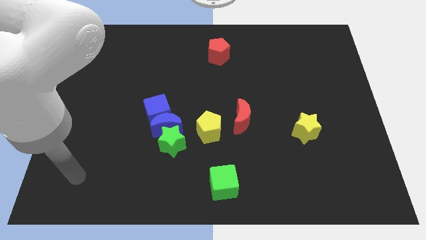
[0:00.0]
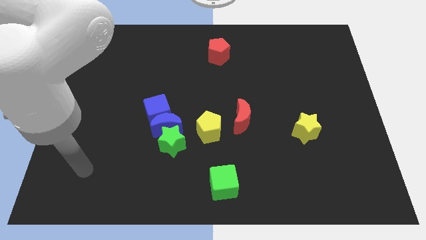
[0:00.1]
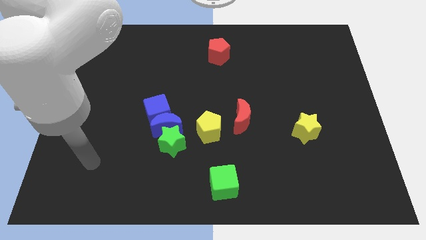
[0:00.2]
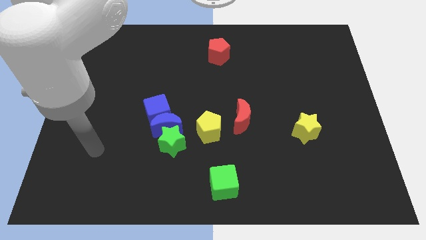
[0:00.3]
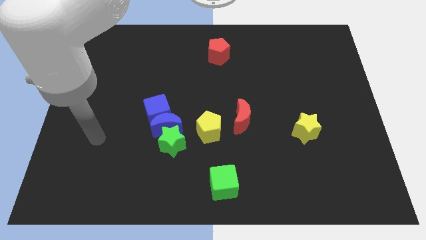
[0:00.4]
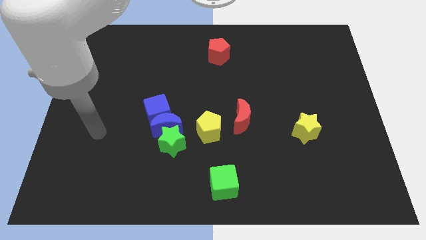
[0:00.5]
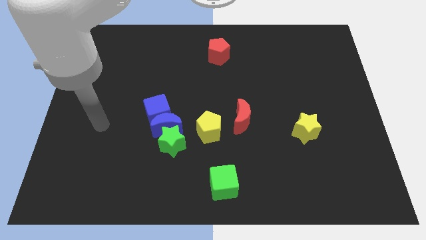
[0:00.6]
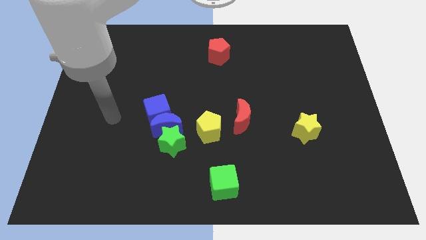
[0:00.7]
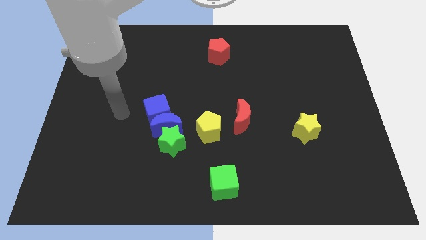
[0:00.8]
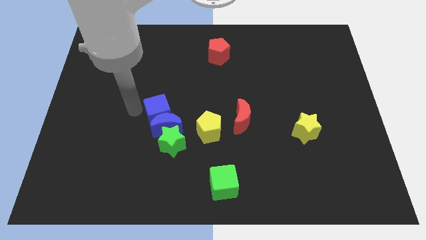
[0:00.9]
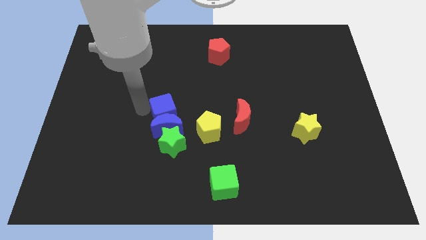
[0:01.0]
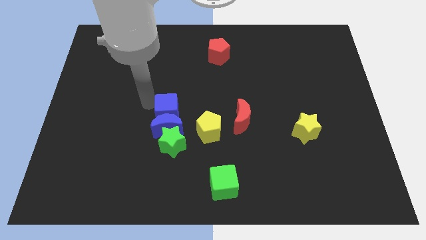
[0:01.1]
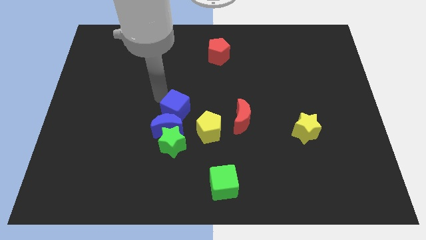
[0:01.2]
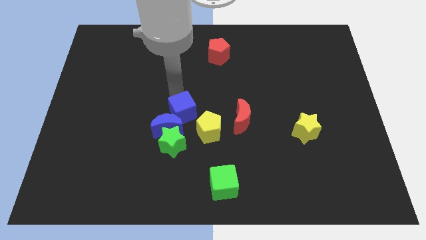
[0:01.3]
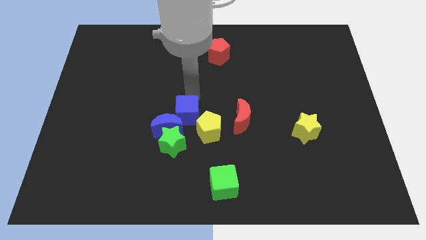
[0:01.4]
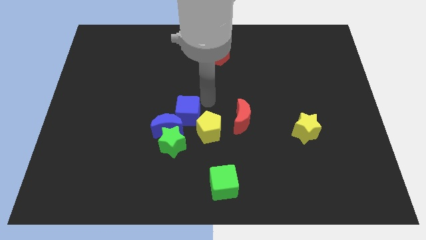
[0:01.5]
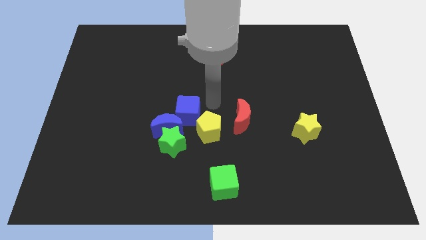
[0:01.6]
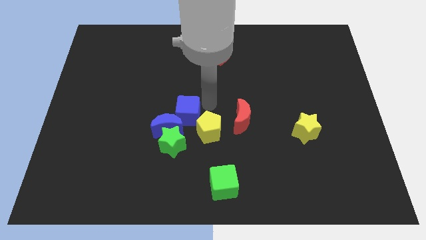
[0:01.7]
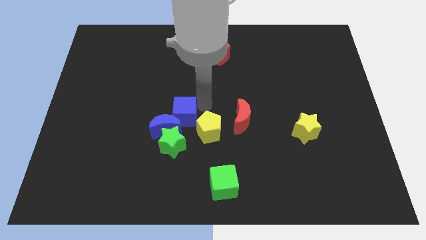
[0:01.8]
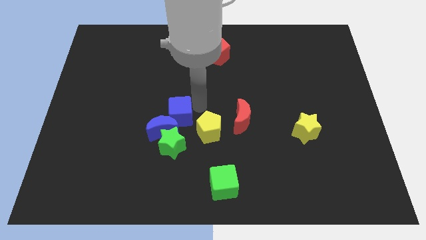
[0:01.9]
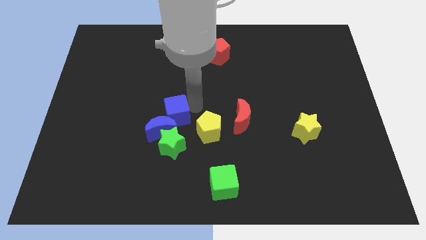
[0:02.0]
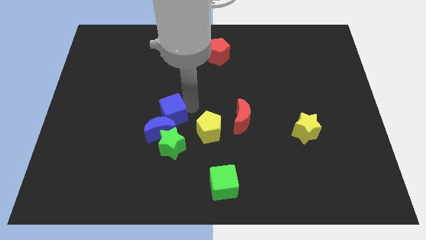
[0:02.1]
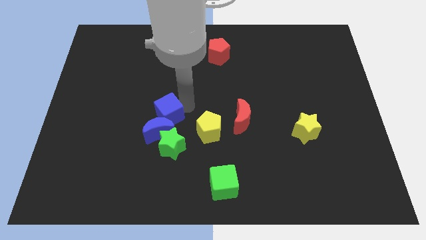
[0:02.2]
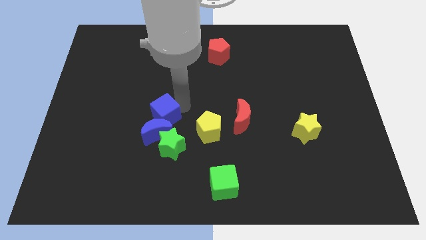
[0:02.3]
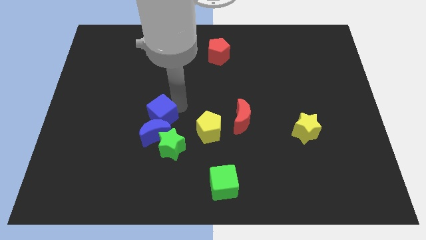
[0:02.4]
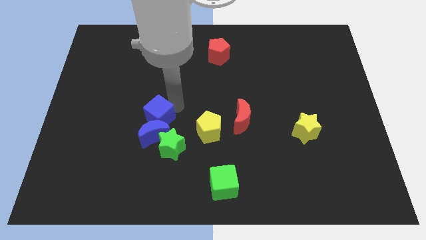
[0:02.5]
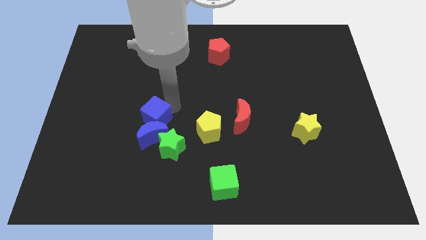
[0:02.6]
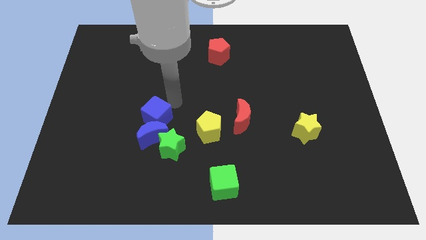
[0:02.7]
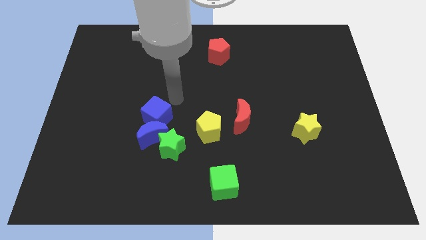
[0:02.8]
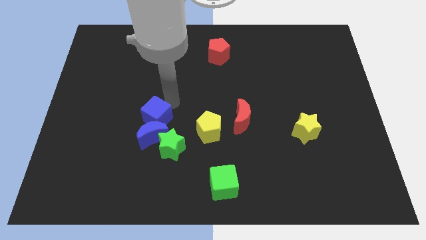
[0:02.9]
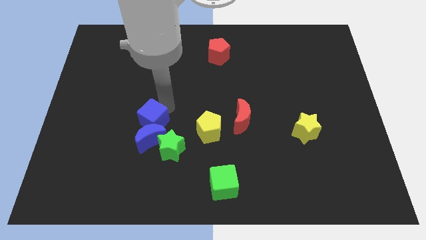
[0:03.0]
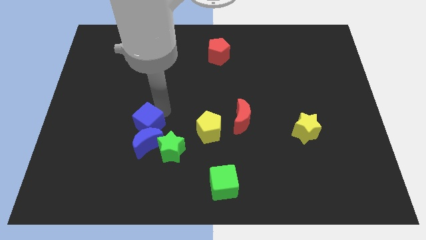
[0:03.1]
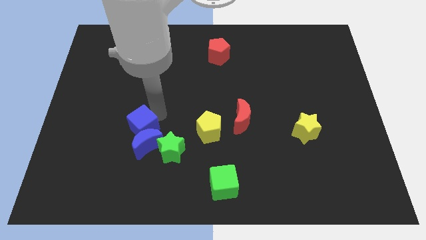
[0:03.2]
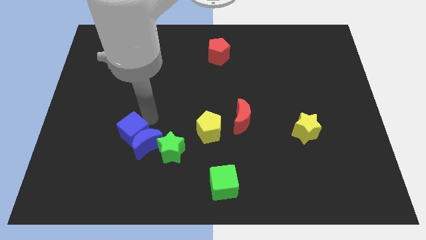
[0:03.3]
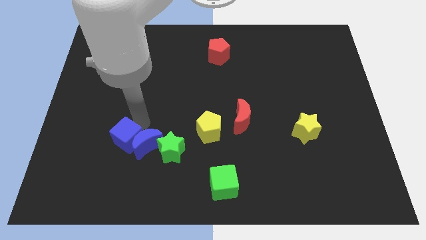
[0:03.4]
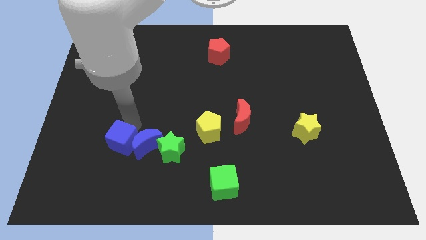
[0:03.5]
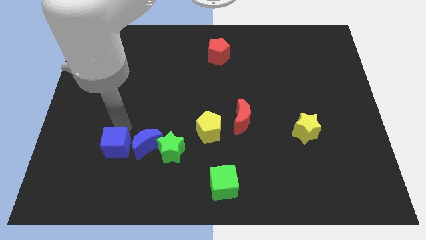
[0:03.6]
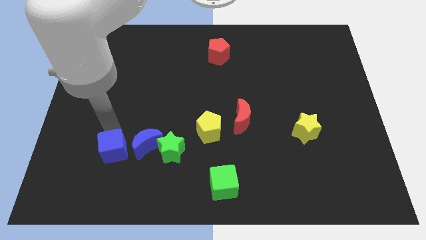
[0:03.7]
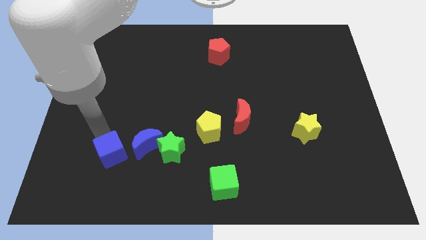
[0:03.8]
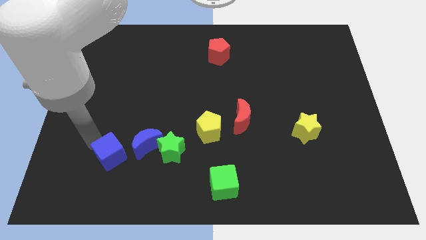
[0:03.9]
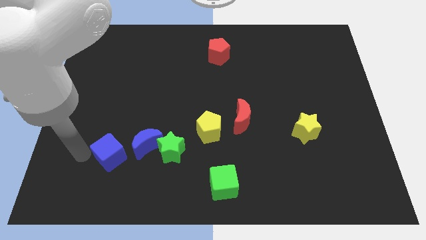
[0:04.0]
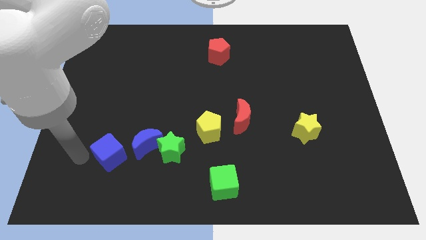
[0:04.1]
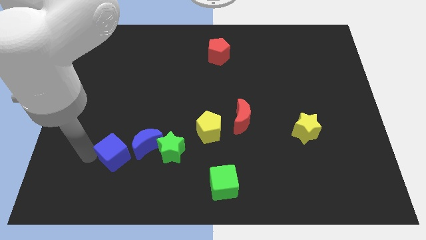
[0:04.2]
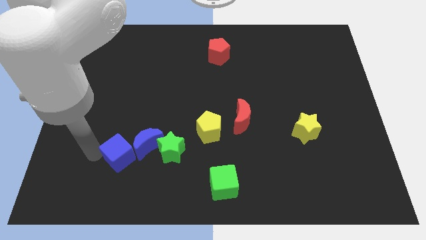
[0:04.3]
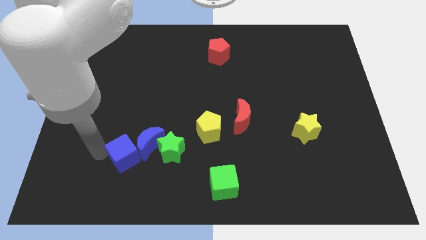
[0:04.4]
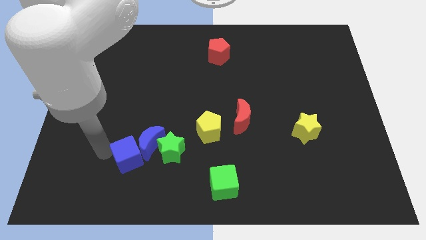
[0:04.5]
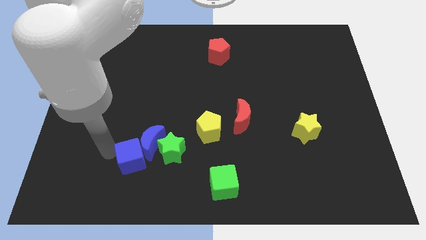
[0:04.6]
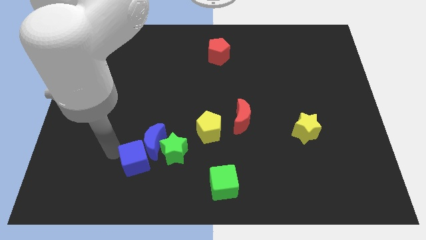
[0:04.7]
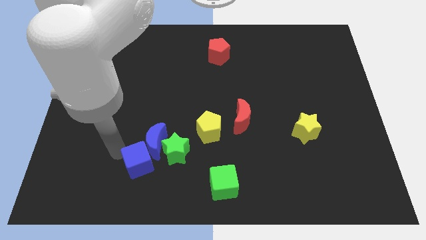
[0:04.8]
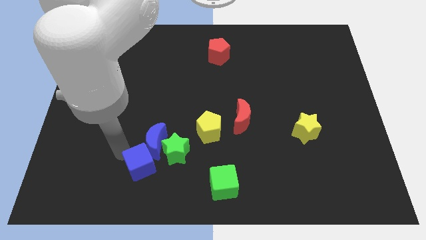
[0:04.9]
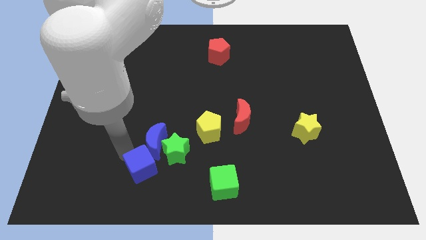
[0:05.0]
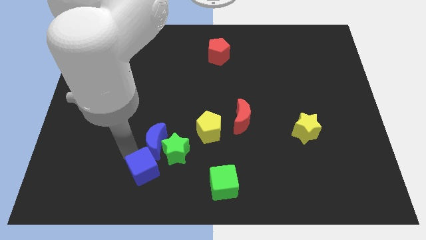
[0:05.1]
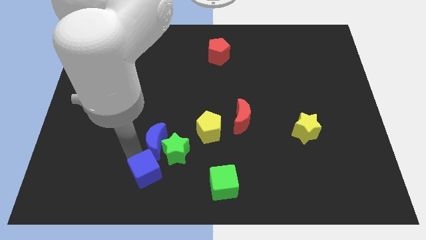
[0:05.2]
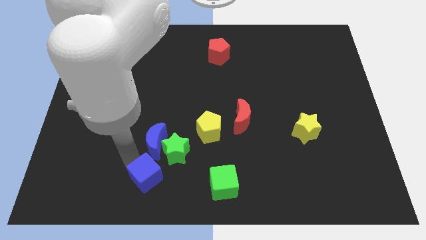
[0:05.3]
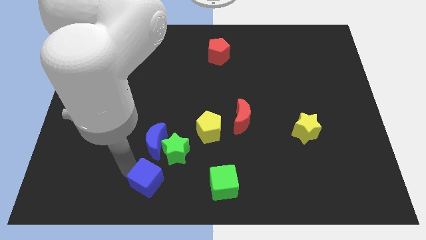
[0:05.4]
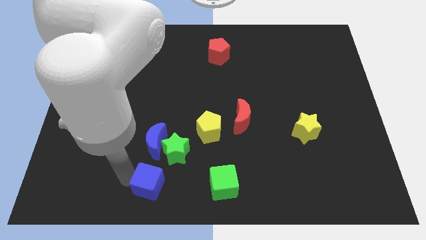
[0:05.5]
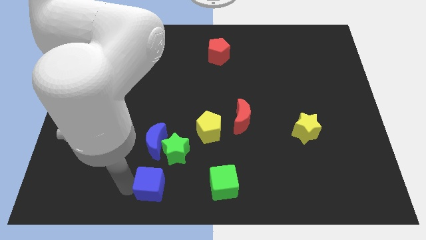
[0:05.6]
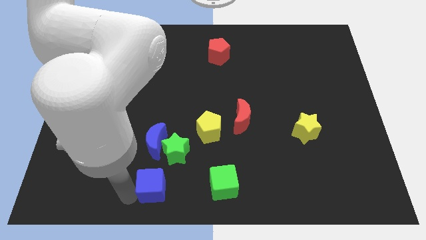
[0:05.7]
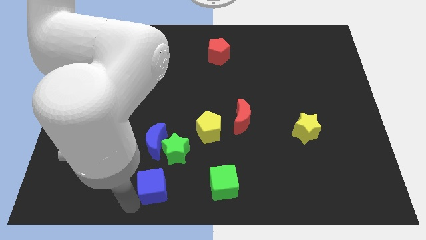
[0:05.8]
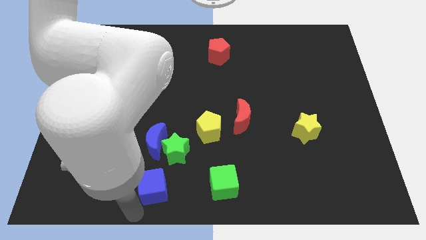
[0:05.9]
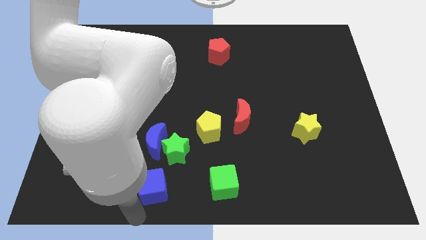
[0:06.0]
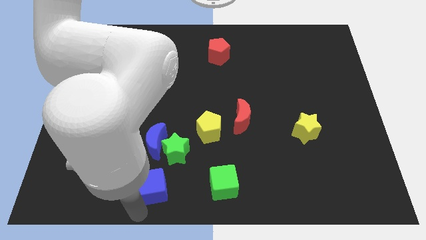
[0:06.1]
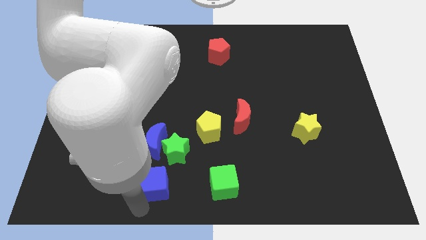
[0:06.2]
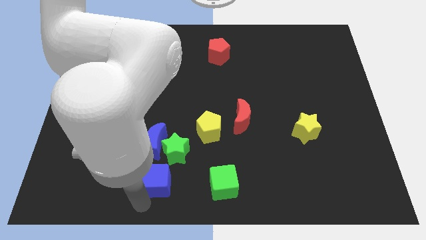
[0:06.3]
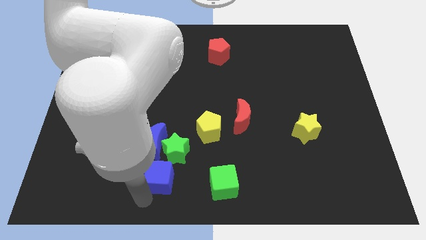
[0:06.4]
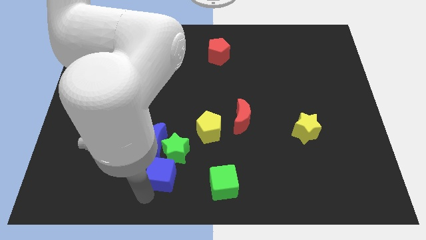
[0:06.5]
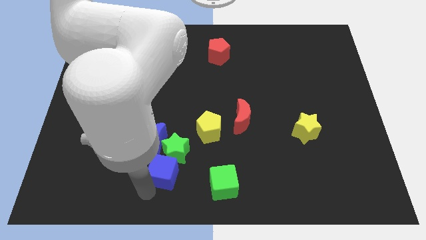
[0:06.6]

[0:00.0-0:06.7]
put the blue cube close to the green star

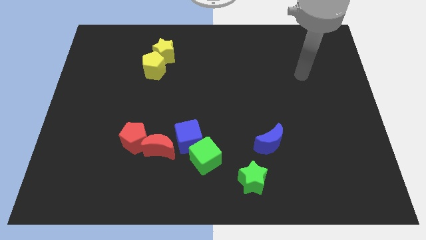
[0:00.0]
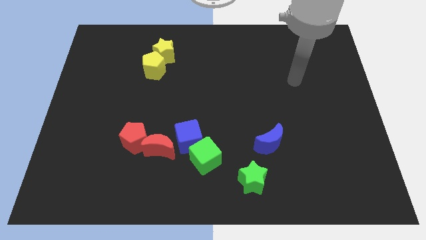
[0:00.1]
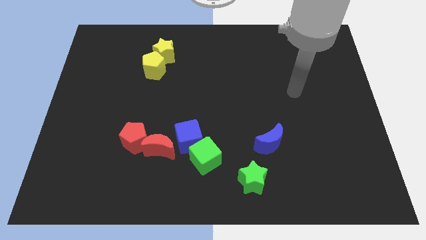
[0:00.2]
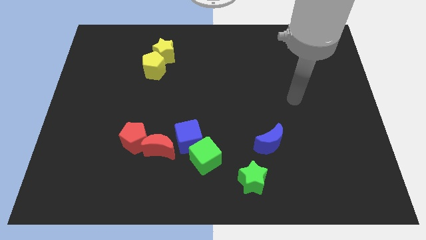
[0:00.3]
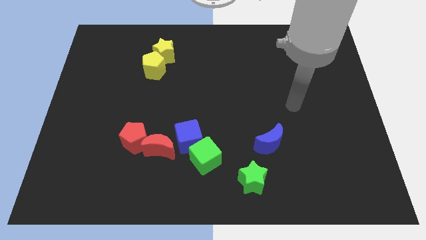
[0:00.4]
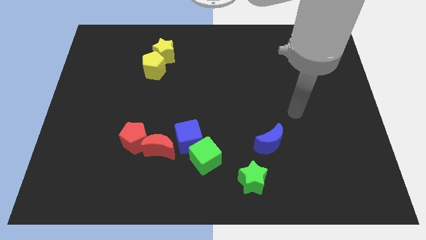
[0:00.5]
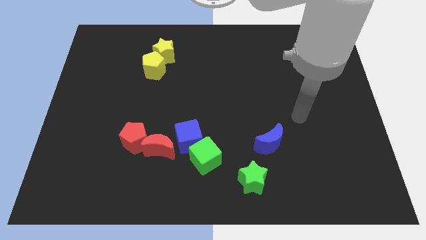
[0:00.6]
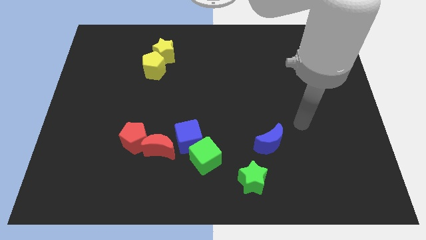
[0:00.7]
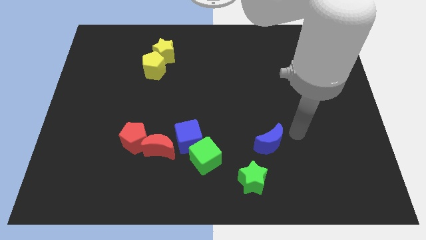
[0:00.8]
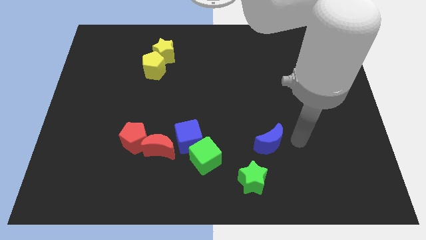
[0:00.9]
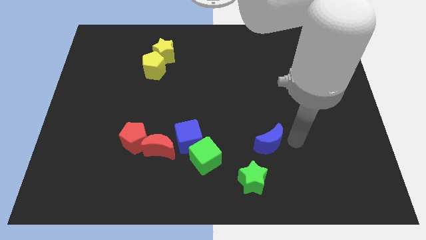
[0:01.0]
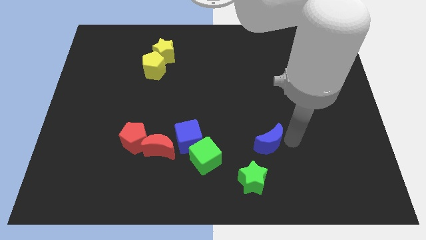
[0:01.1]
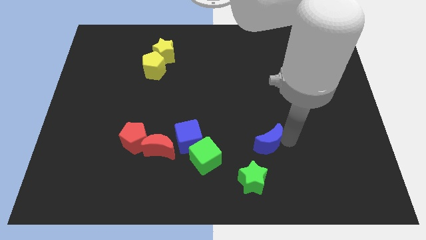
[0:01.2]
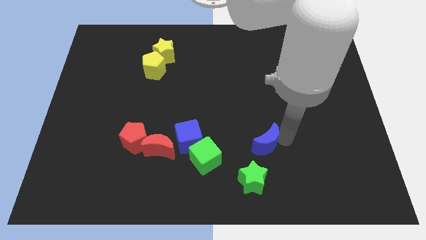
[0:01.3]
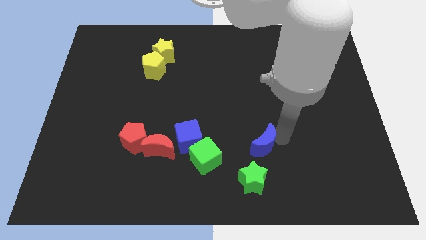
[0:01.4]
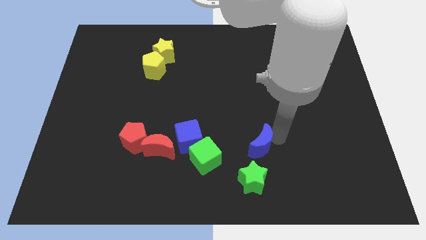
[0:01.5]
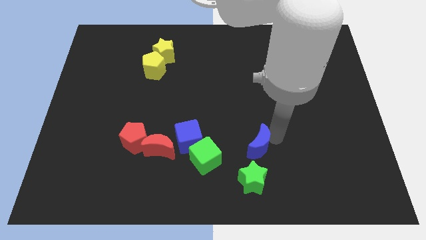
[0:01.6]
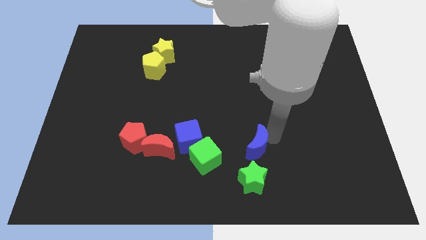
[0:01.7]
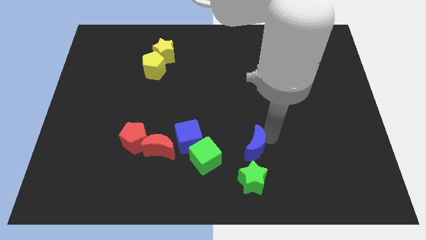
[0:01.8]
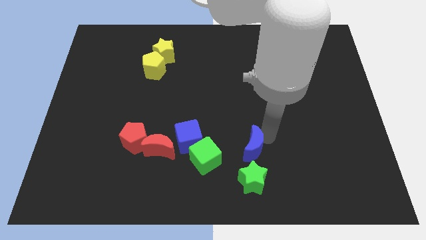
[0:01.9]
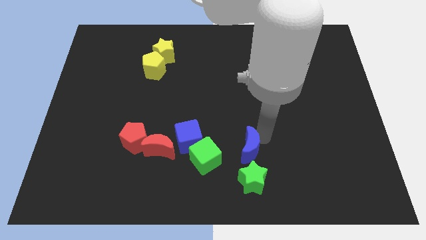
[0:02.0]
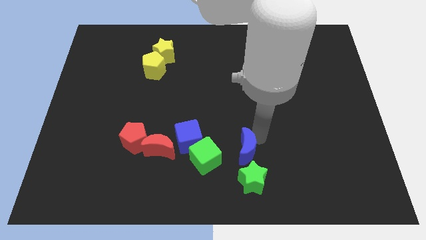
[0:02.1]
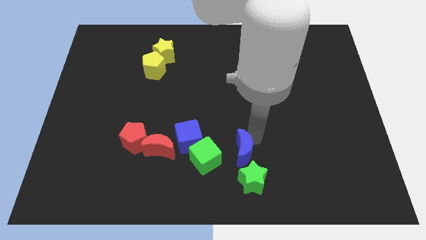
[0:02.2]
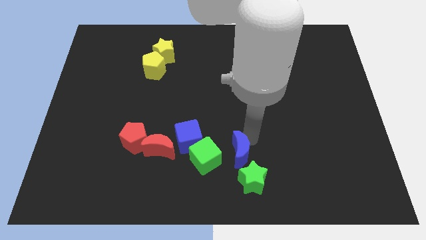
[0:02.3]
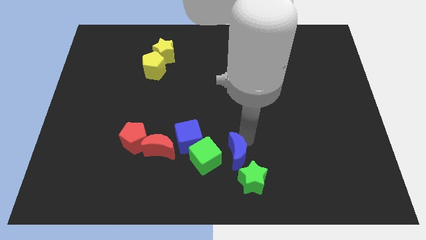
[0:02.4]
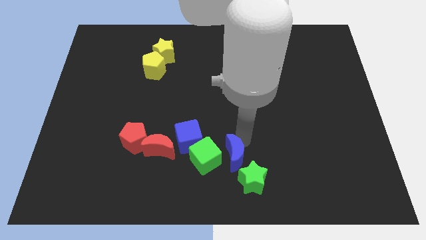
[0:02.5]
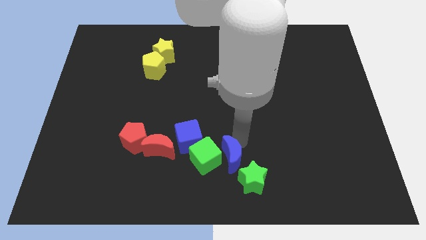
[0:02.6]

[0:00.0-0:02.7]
put the blue moon towards the green cube
